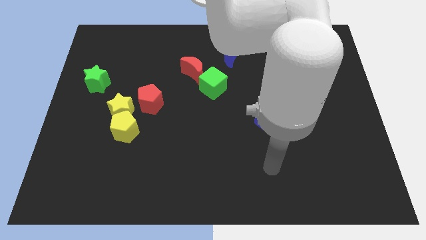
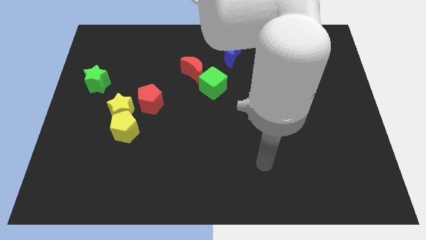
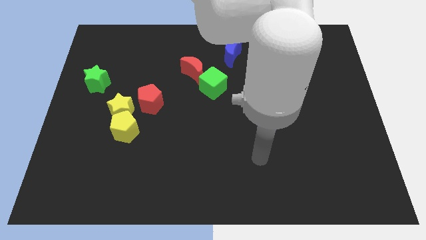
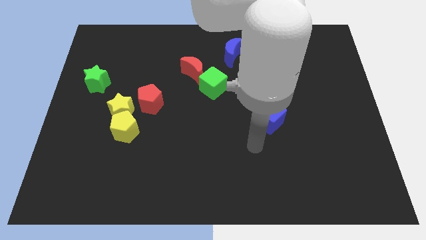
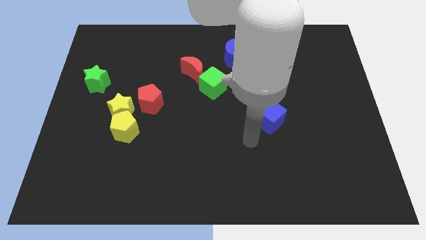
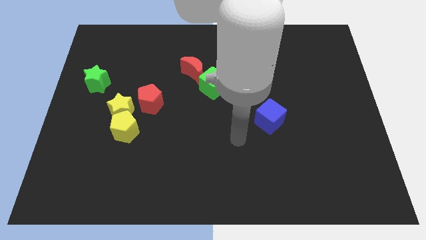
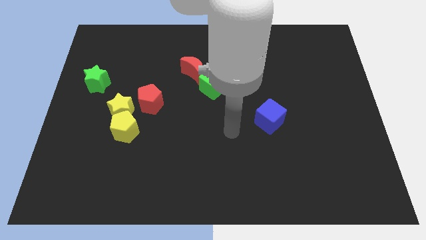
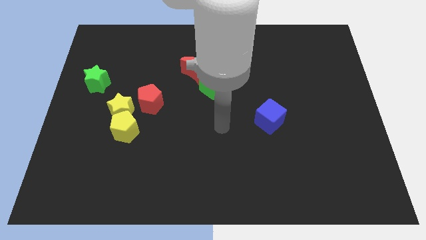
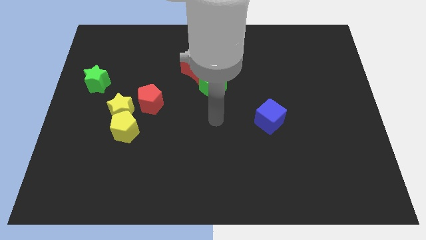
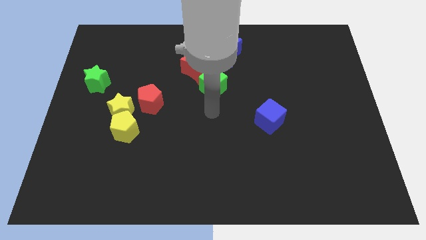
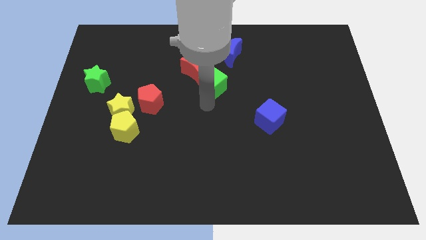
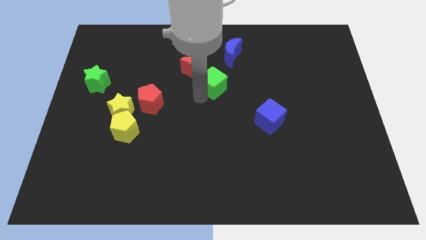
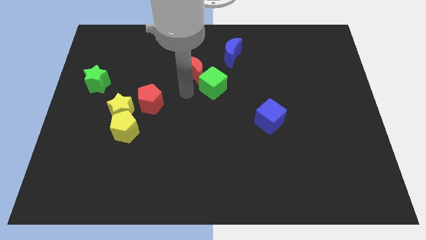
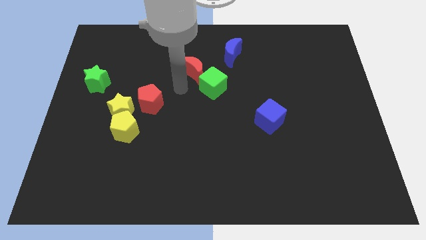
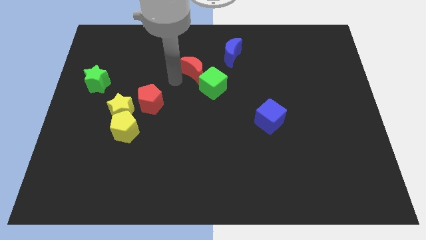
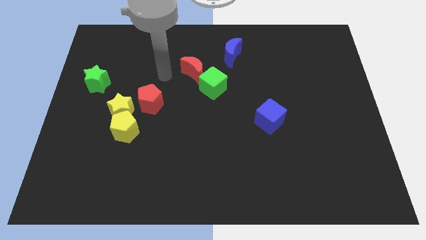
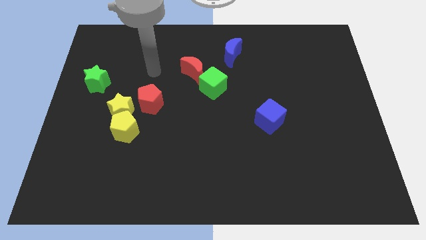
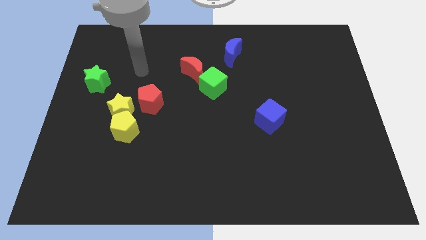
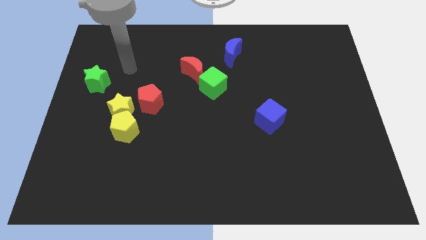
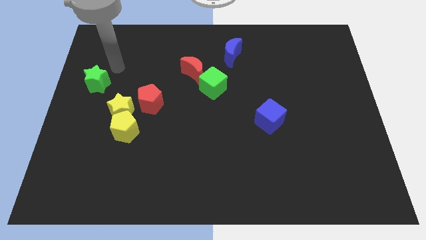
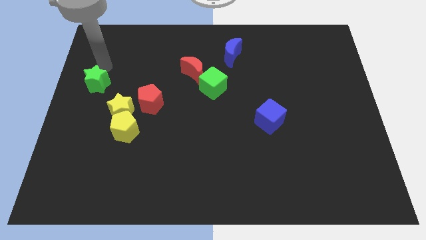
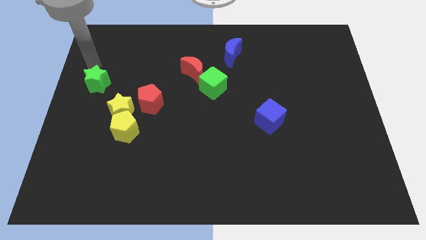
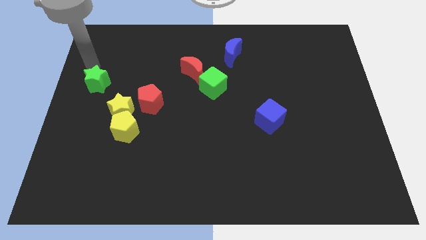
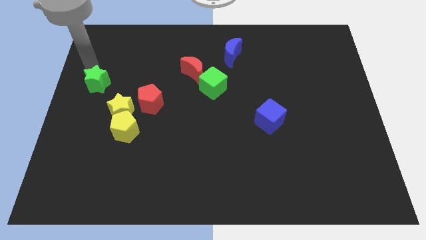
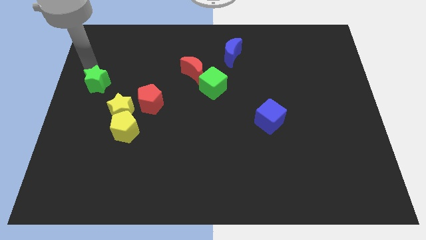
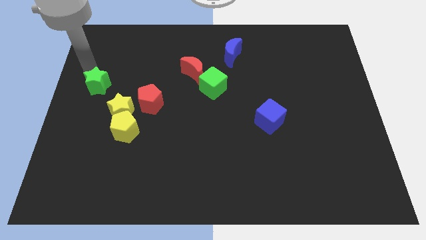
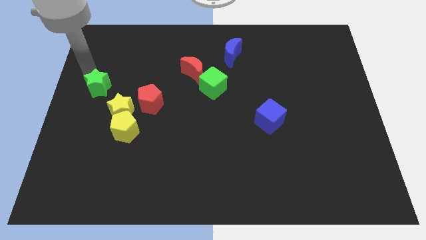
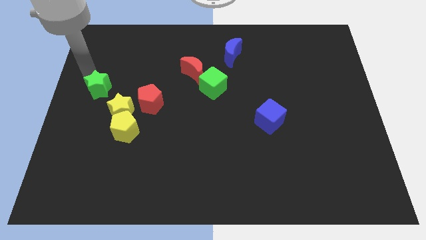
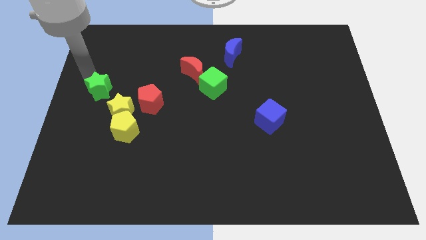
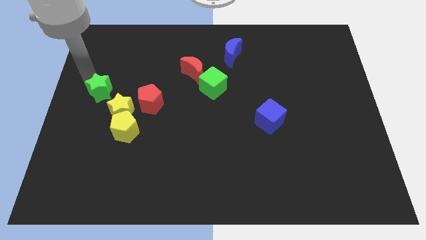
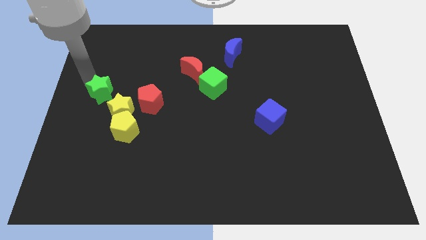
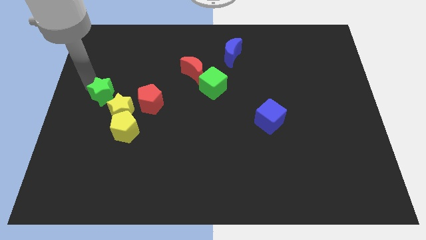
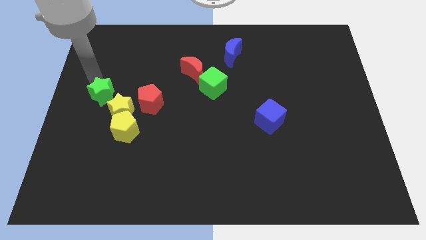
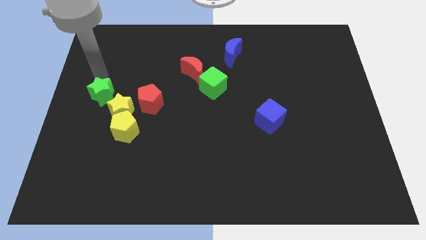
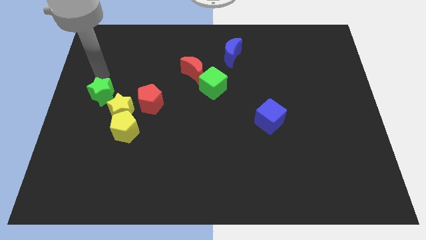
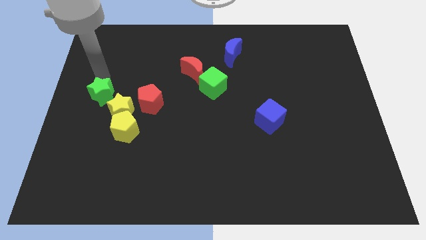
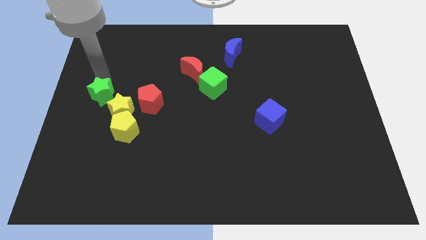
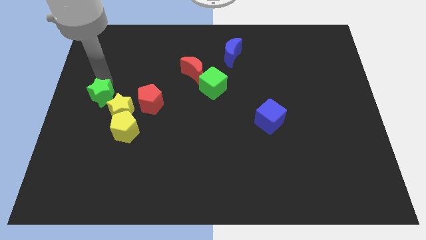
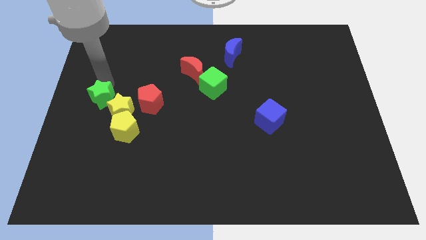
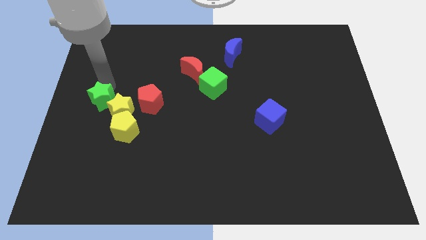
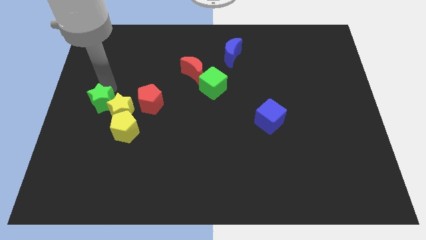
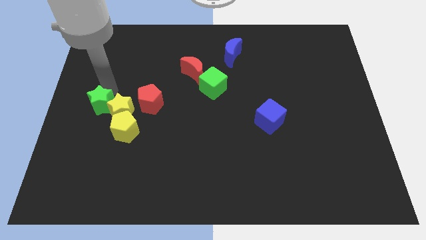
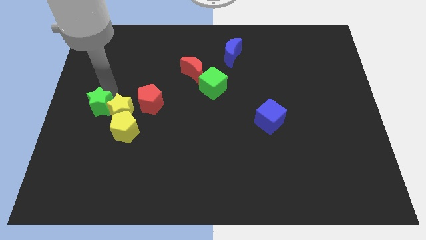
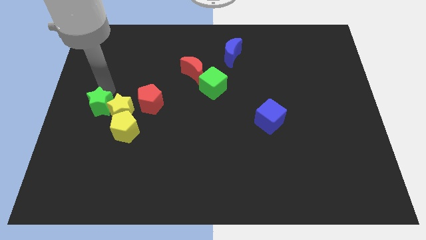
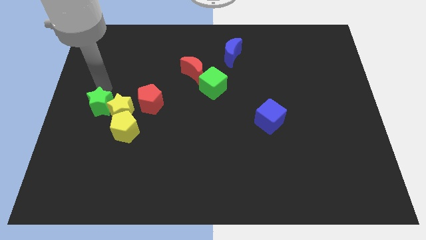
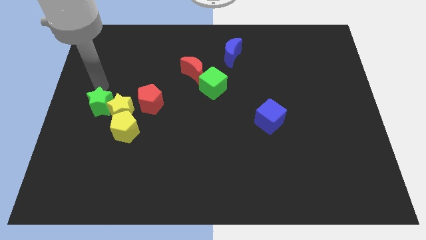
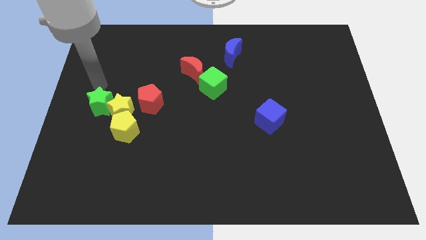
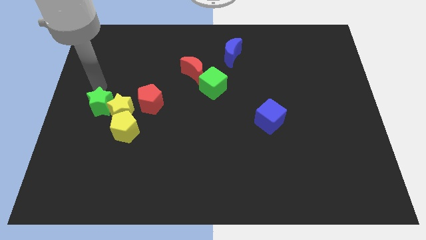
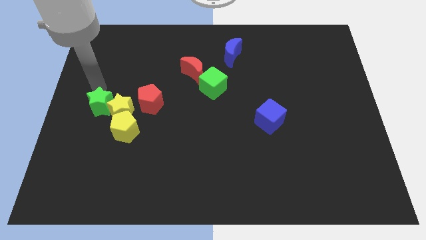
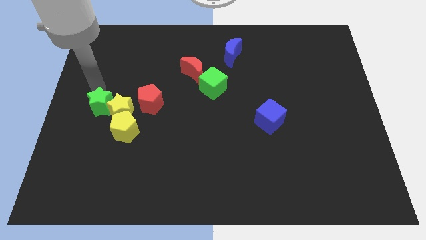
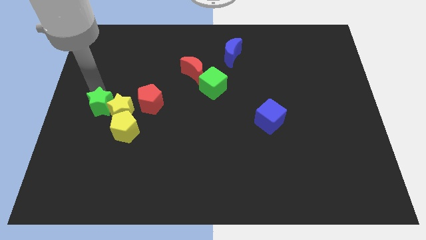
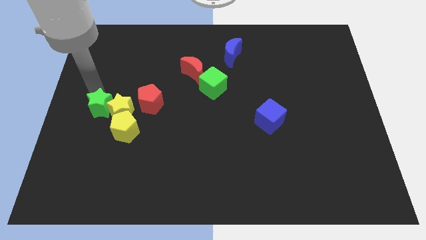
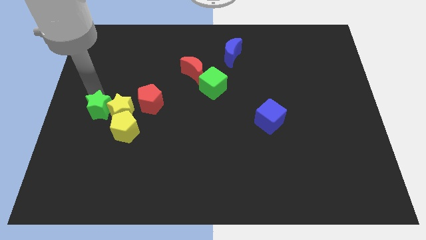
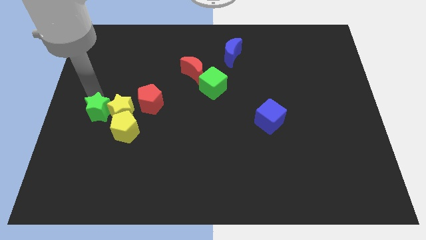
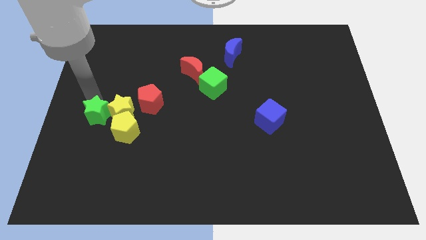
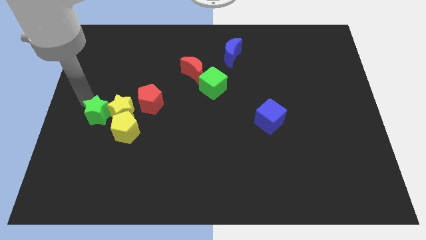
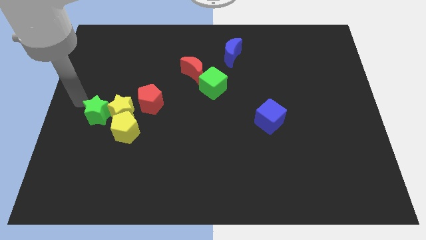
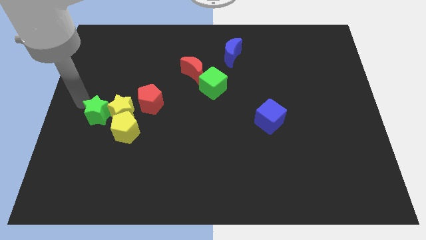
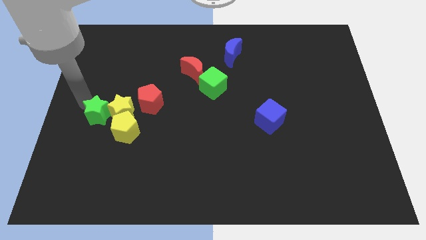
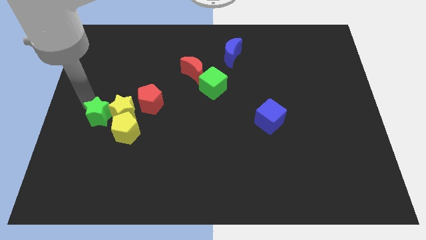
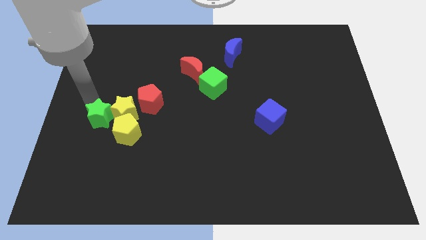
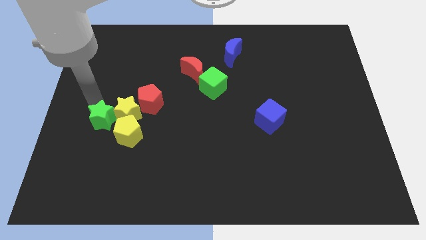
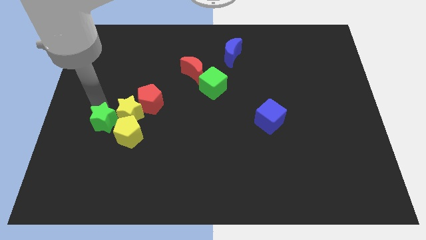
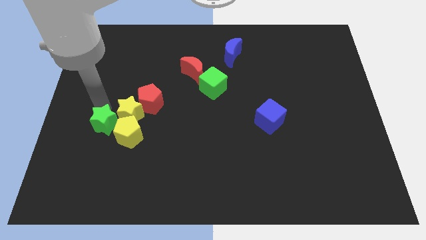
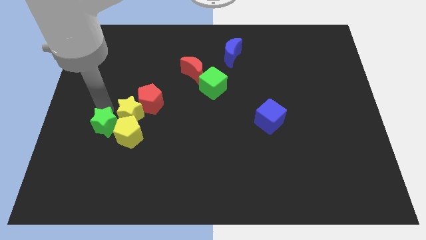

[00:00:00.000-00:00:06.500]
put the green star to the yellow pentagon

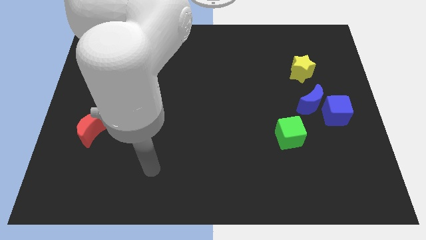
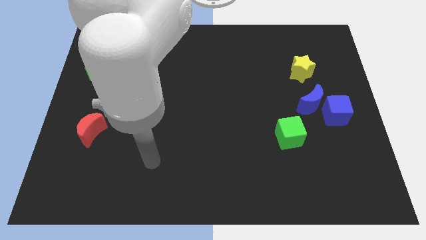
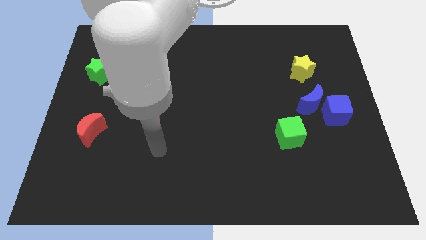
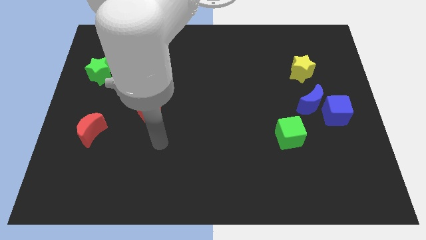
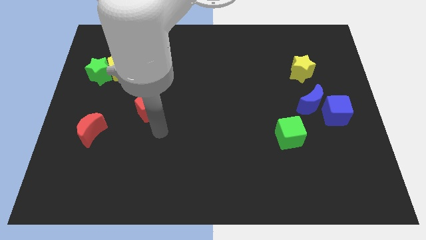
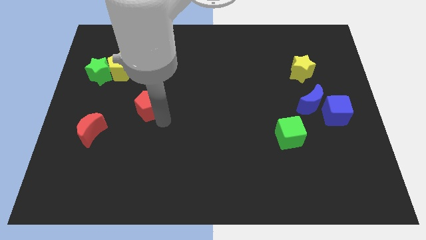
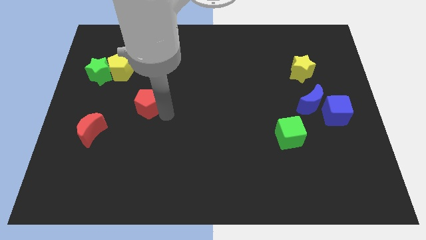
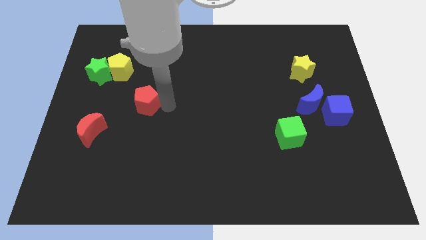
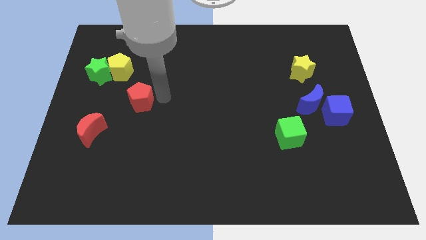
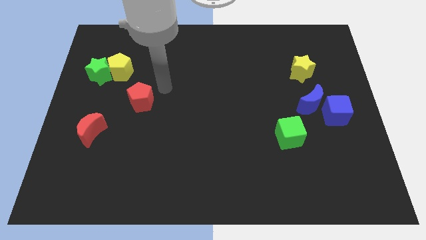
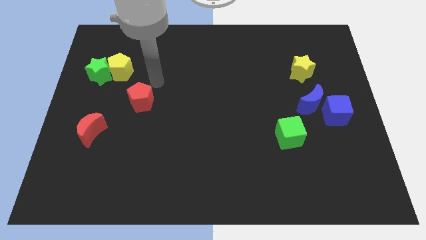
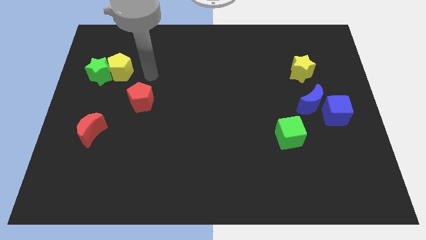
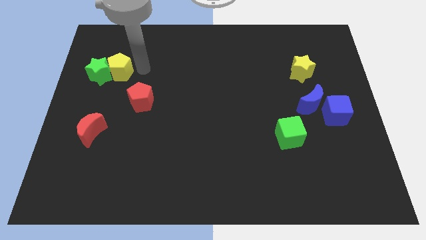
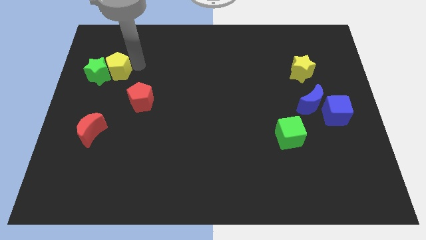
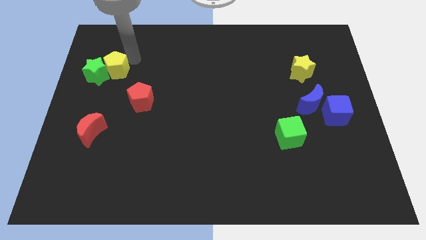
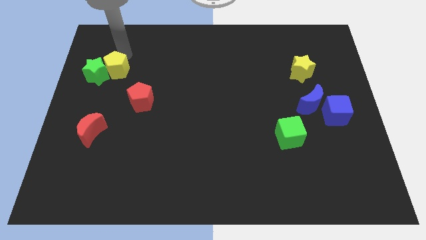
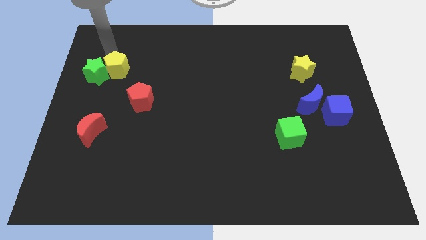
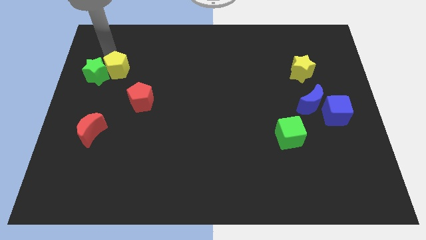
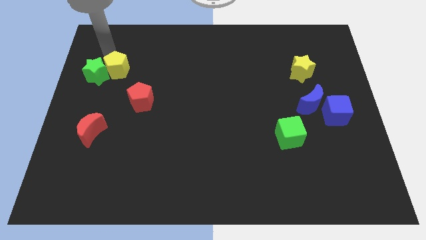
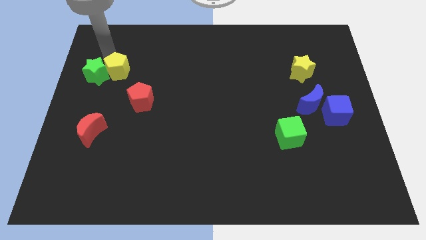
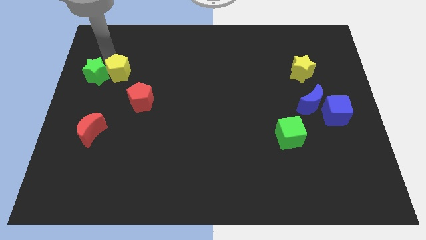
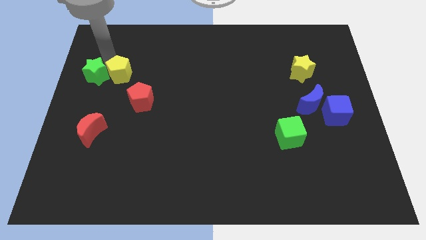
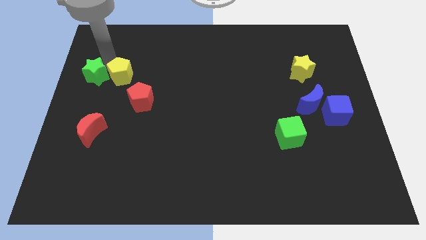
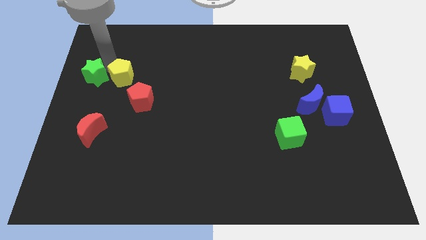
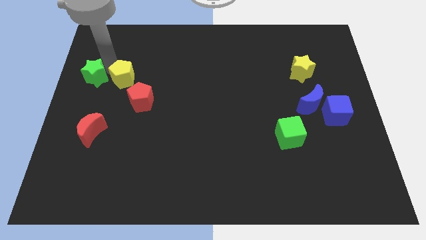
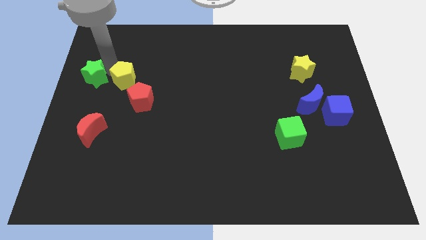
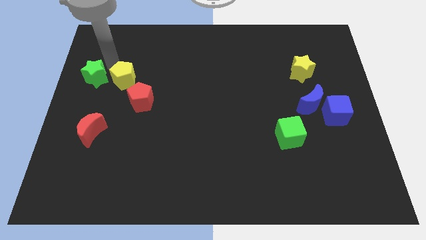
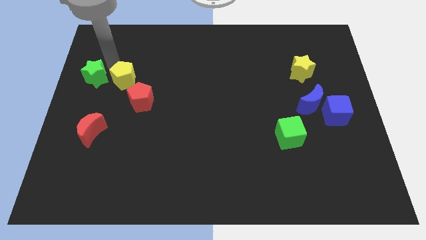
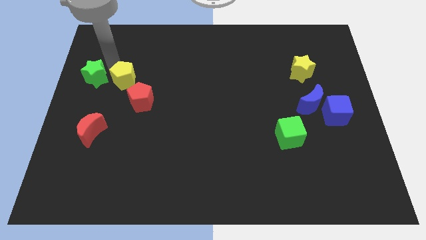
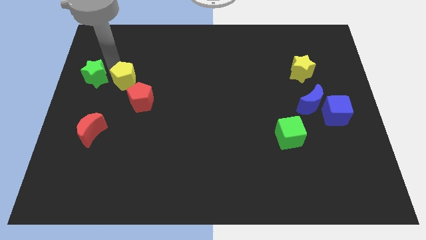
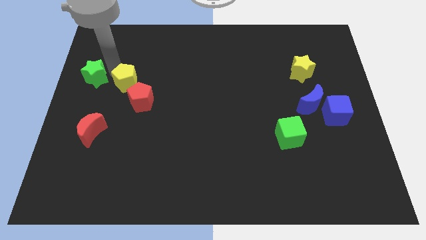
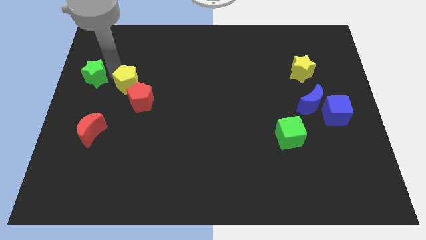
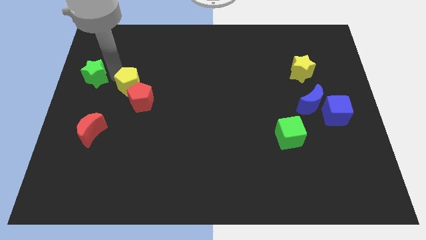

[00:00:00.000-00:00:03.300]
put the yellow pentagon to the red pentagon
